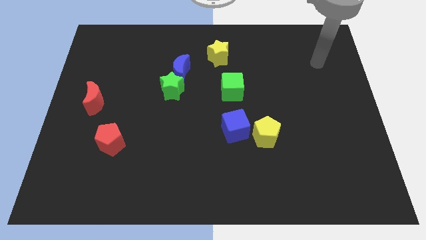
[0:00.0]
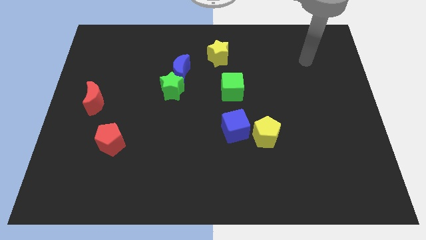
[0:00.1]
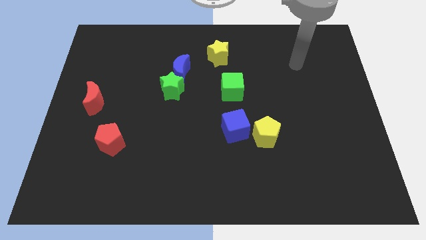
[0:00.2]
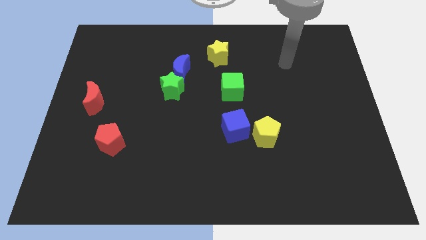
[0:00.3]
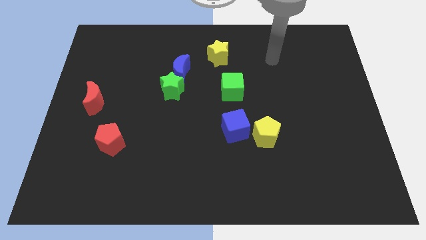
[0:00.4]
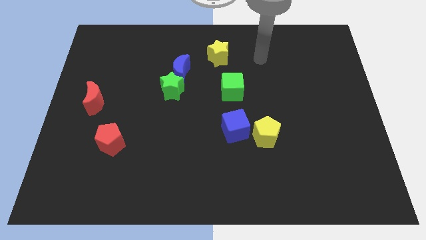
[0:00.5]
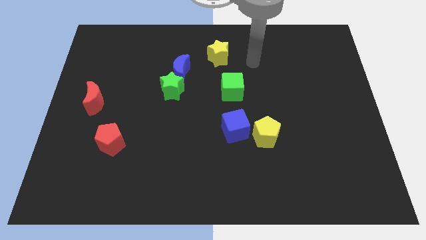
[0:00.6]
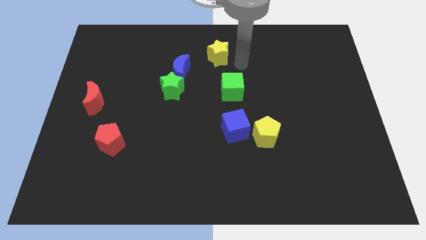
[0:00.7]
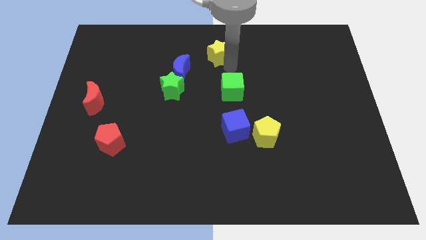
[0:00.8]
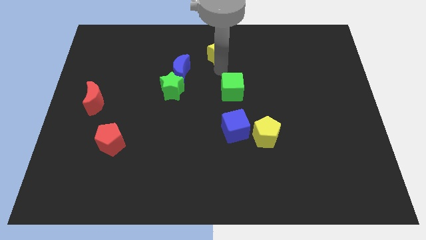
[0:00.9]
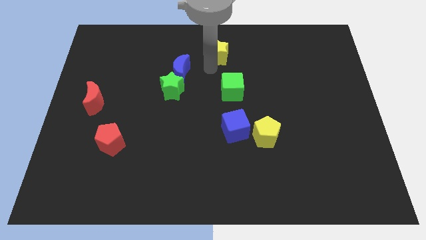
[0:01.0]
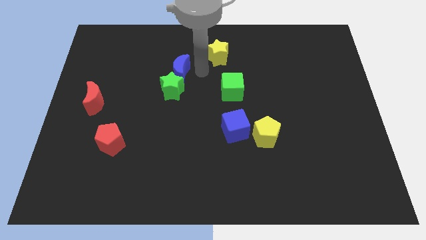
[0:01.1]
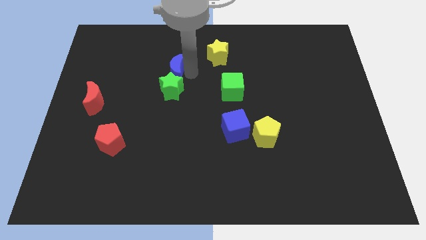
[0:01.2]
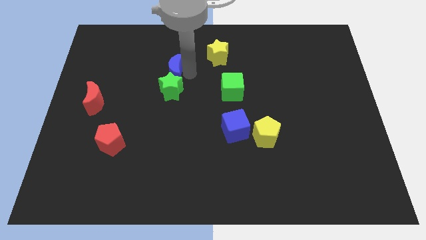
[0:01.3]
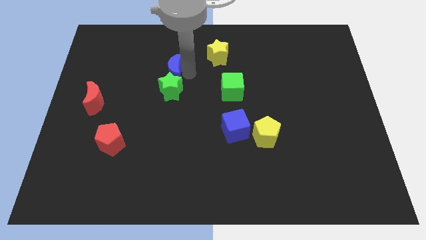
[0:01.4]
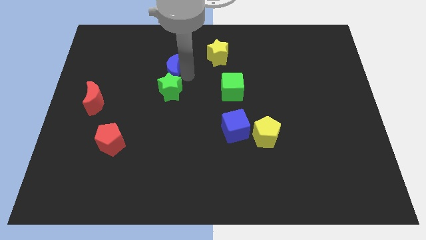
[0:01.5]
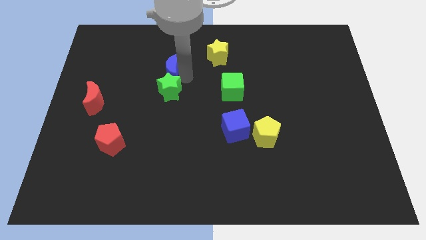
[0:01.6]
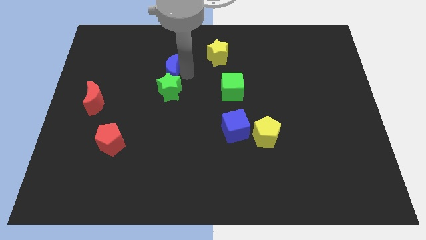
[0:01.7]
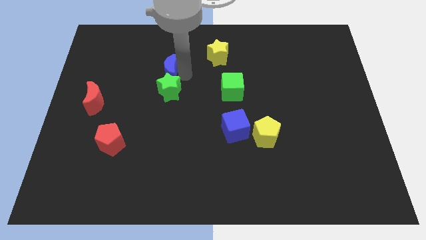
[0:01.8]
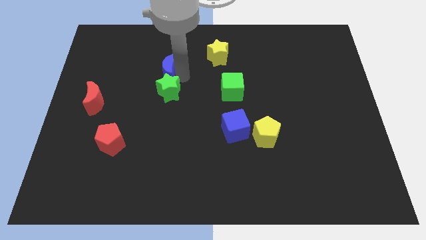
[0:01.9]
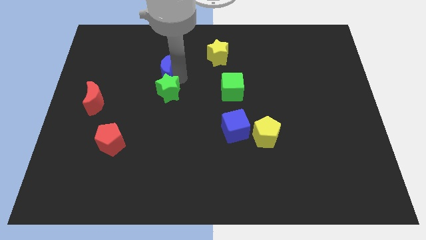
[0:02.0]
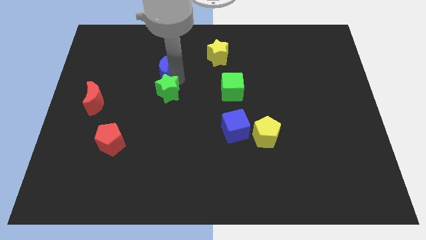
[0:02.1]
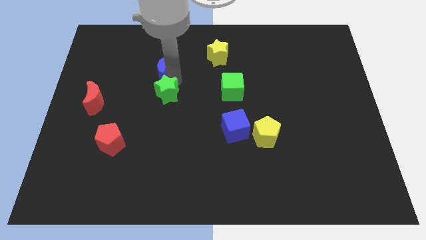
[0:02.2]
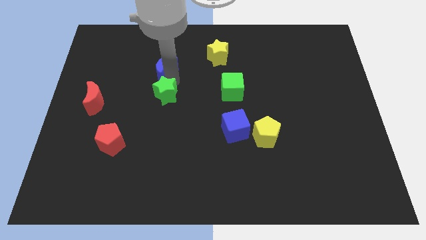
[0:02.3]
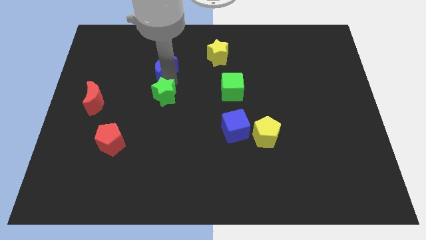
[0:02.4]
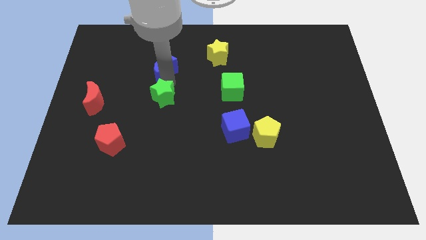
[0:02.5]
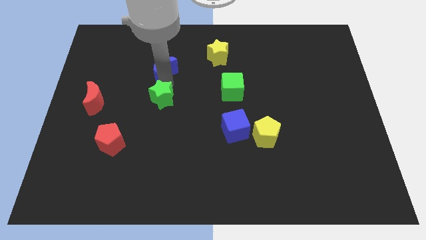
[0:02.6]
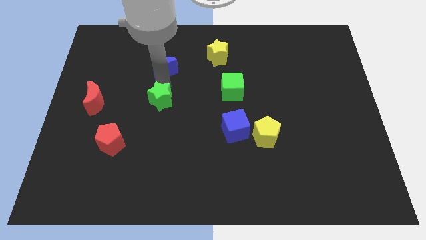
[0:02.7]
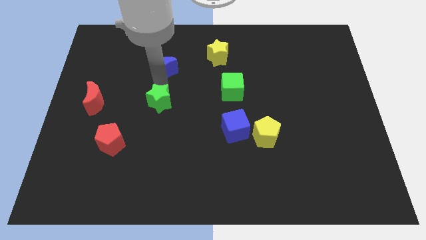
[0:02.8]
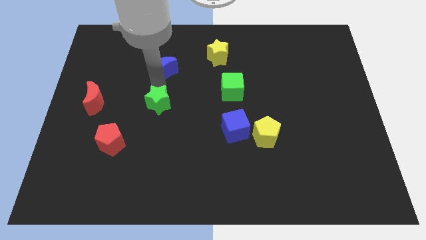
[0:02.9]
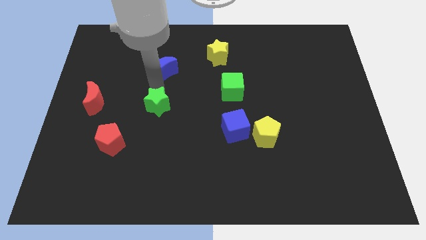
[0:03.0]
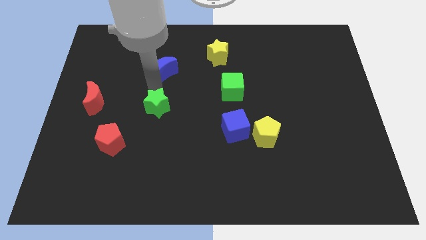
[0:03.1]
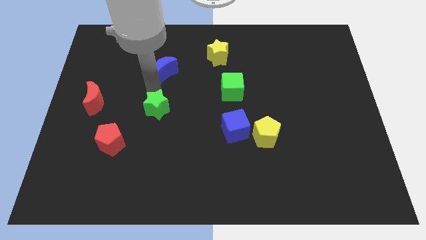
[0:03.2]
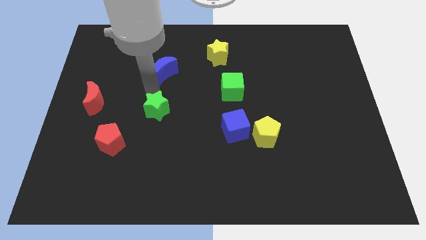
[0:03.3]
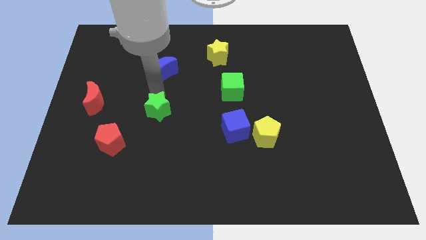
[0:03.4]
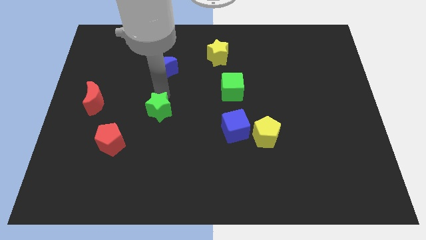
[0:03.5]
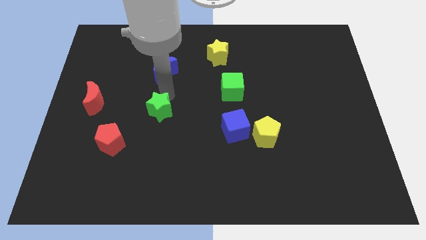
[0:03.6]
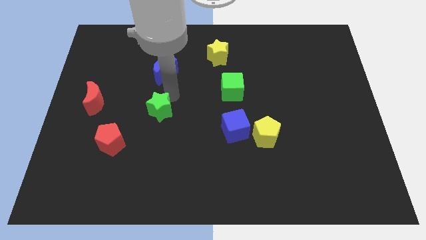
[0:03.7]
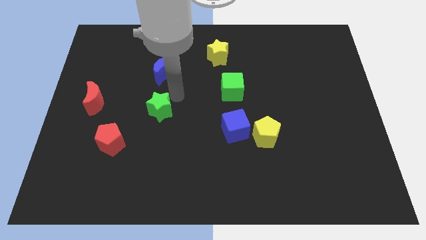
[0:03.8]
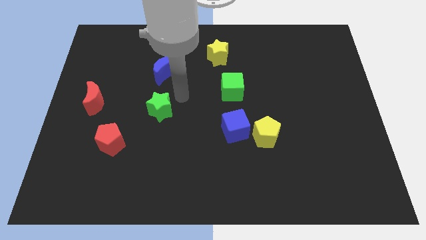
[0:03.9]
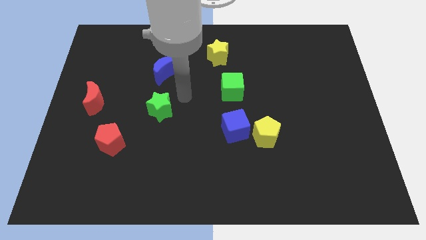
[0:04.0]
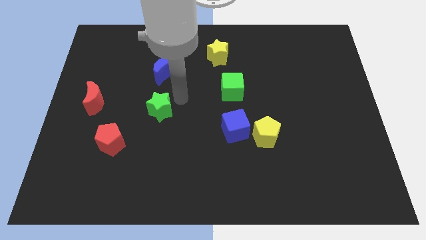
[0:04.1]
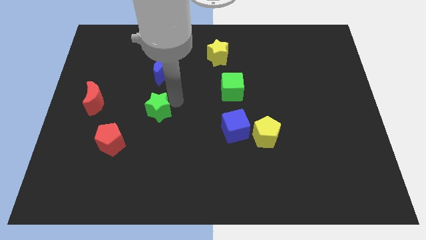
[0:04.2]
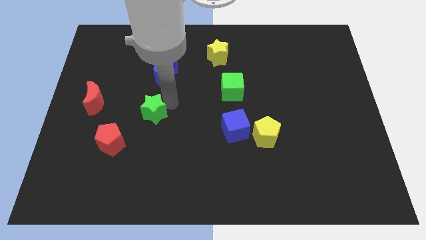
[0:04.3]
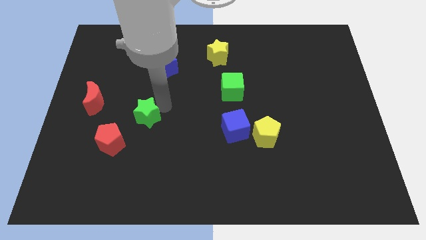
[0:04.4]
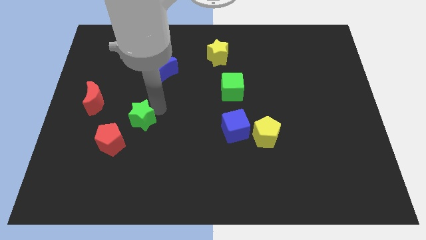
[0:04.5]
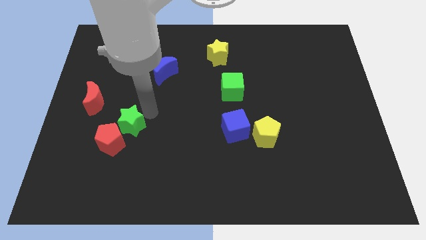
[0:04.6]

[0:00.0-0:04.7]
slide the green star next to the red pentagon

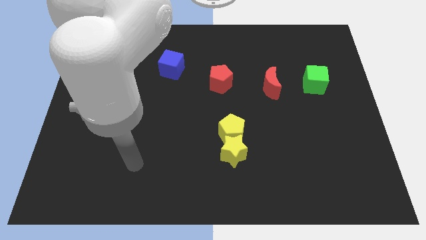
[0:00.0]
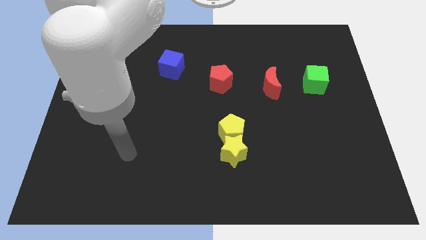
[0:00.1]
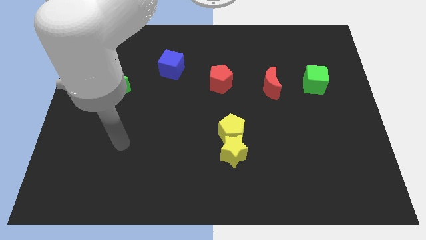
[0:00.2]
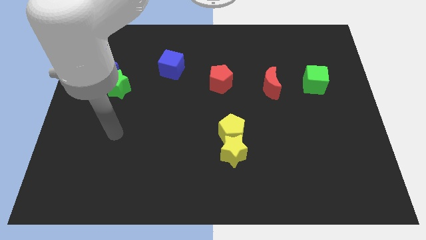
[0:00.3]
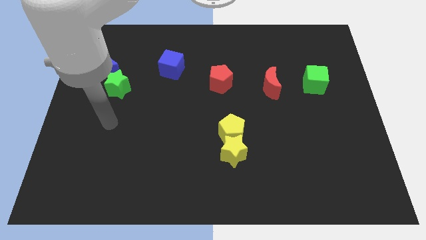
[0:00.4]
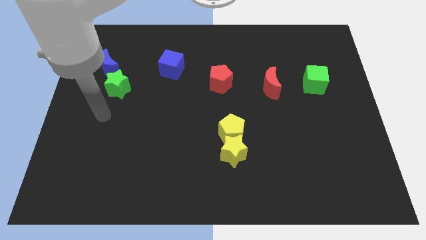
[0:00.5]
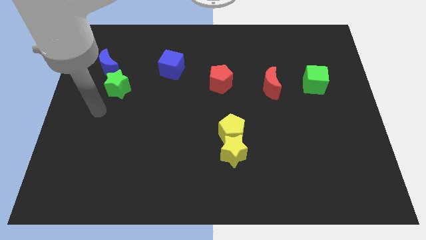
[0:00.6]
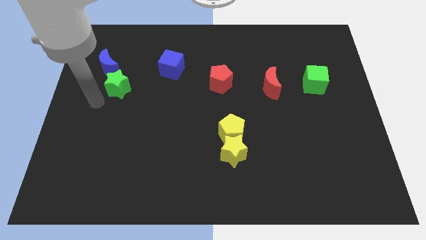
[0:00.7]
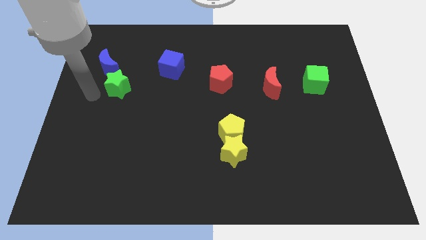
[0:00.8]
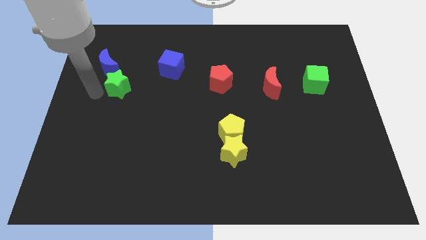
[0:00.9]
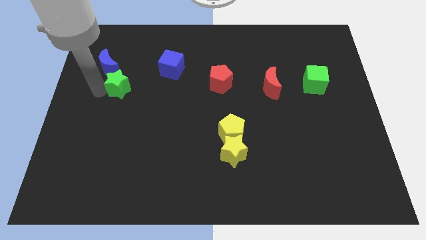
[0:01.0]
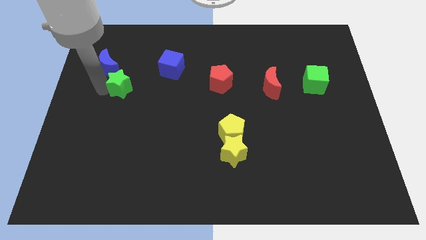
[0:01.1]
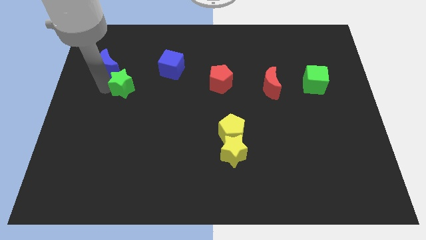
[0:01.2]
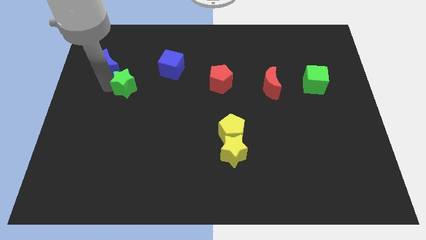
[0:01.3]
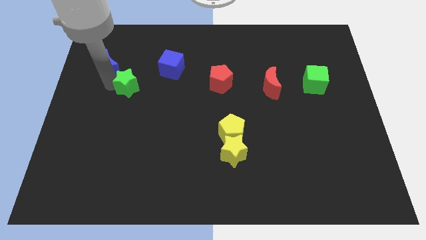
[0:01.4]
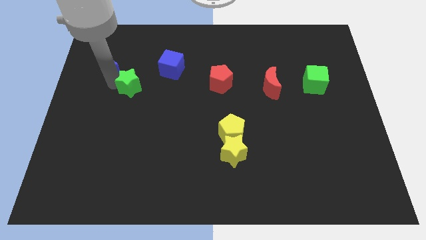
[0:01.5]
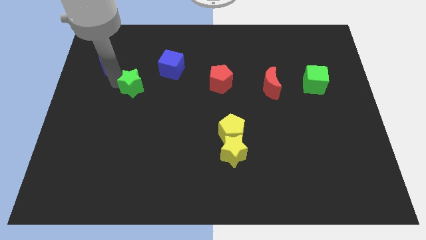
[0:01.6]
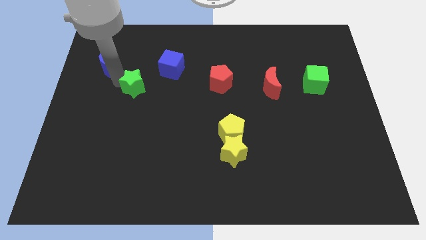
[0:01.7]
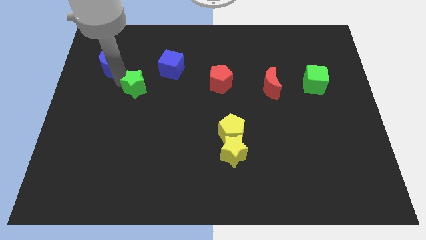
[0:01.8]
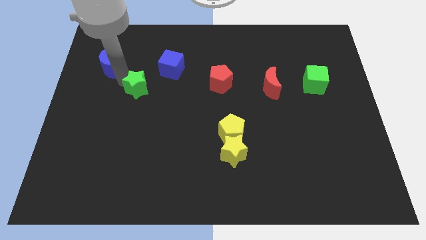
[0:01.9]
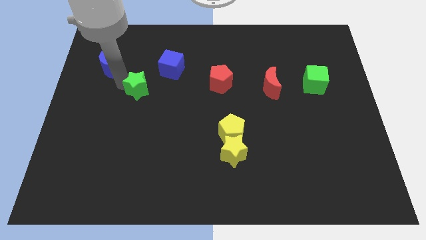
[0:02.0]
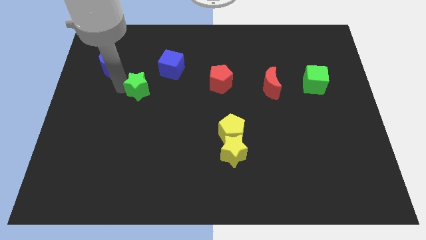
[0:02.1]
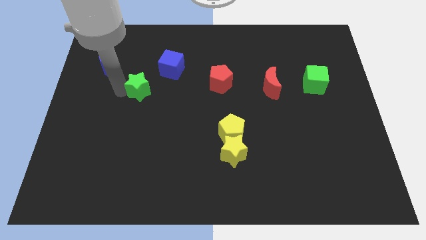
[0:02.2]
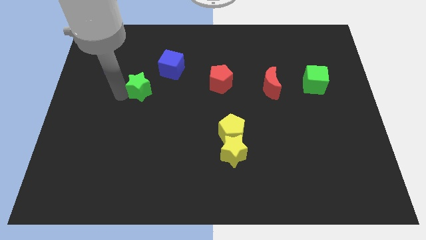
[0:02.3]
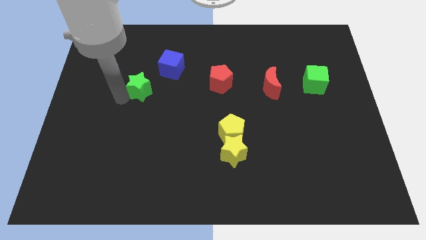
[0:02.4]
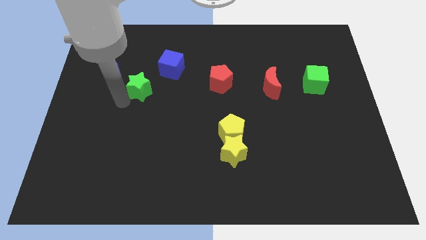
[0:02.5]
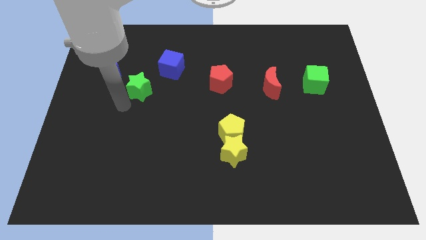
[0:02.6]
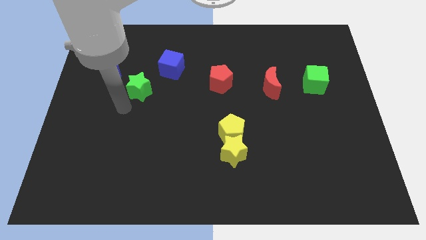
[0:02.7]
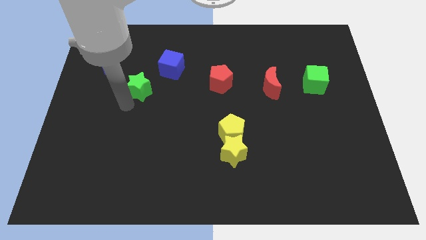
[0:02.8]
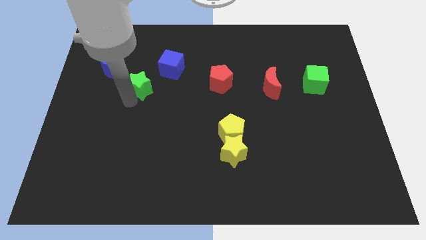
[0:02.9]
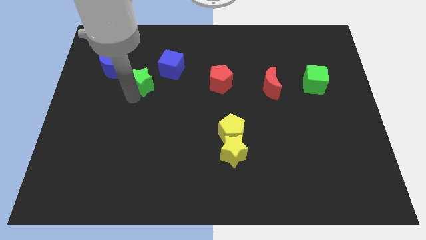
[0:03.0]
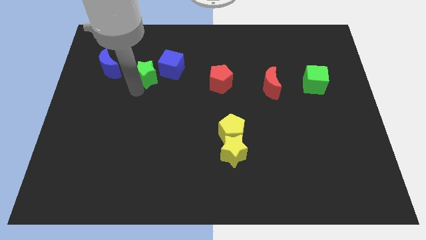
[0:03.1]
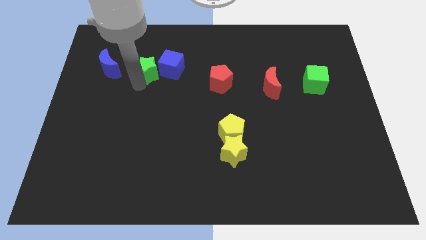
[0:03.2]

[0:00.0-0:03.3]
push the green star towards the blue cube

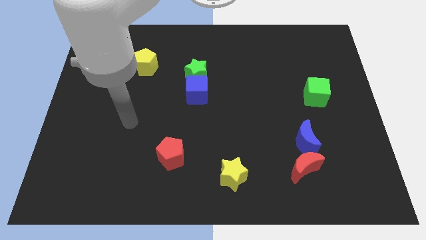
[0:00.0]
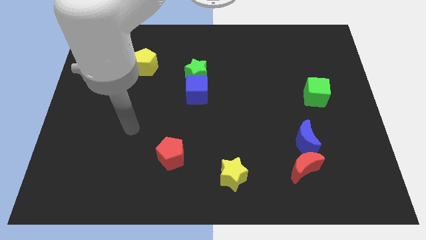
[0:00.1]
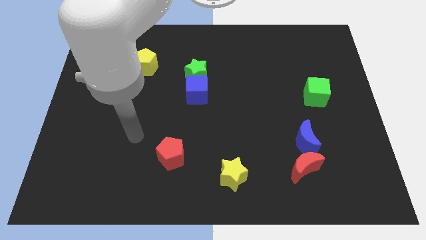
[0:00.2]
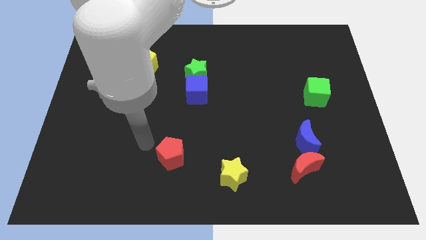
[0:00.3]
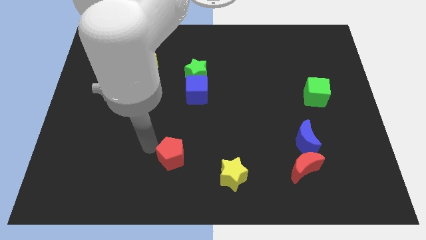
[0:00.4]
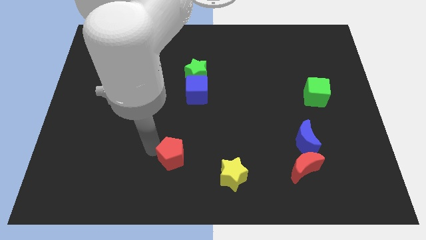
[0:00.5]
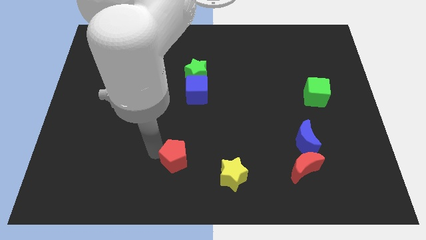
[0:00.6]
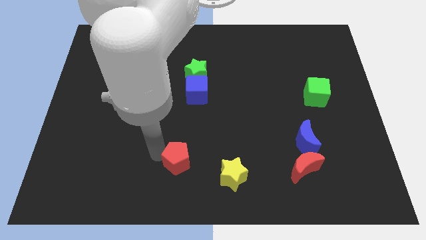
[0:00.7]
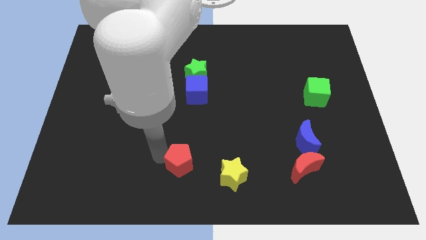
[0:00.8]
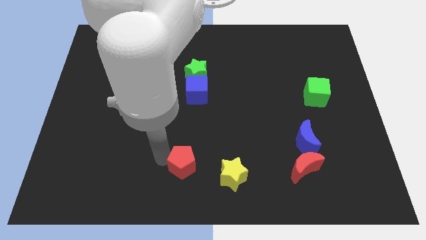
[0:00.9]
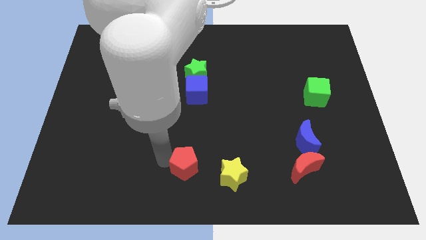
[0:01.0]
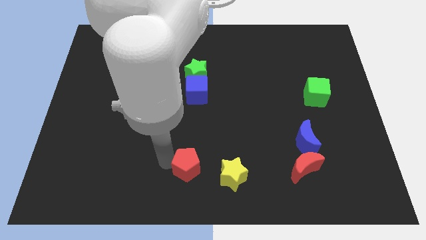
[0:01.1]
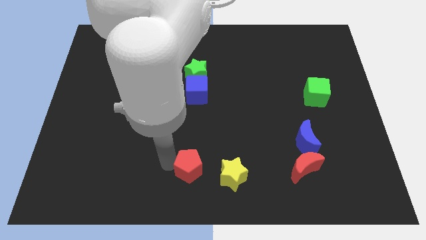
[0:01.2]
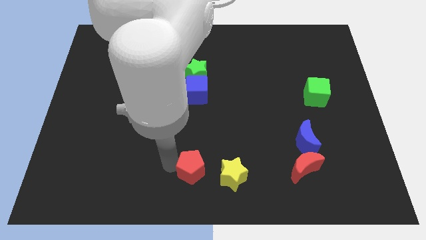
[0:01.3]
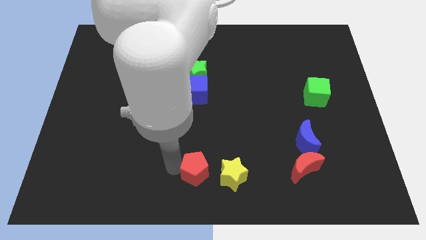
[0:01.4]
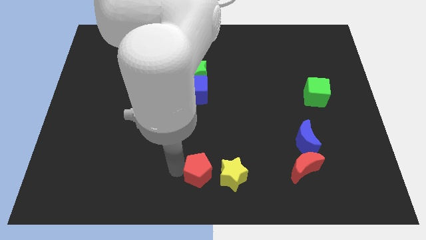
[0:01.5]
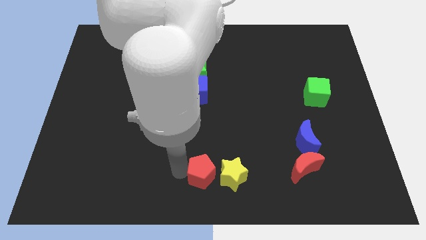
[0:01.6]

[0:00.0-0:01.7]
push the red pentagon to the yellow star
